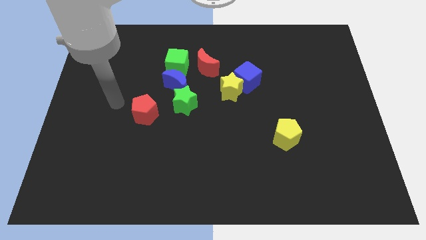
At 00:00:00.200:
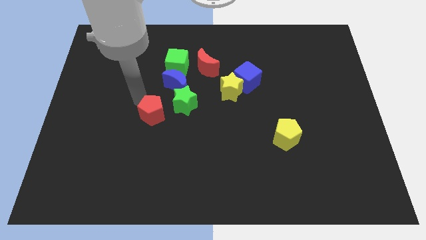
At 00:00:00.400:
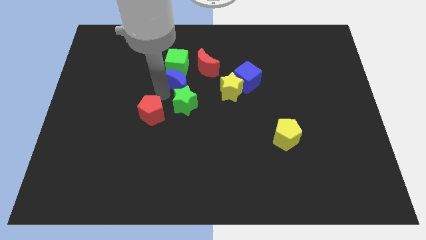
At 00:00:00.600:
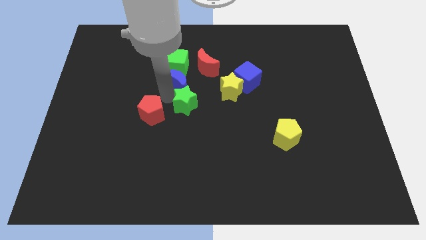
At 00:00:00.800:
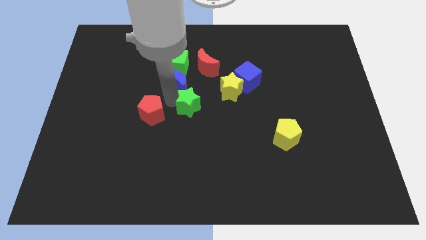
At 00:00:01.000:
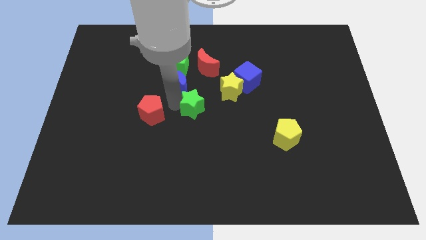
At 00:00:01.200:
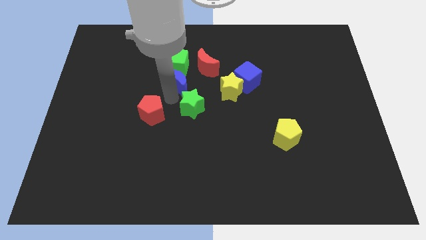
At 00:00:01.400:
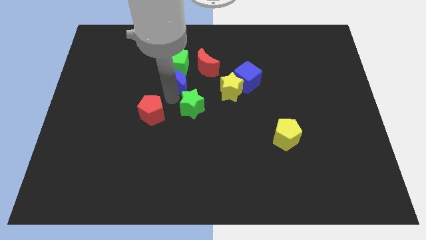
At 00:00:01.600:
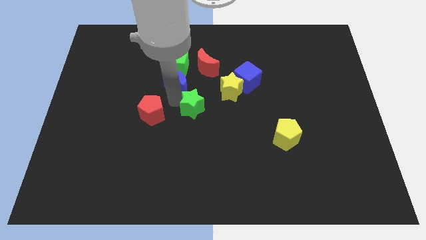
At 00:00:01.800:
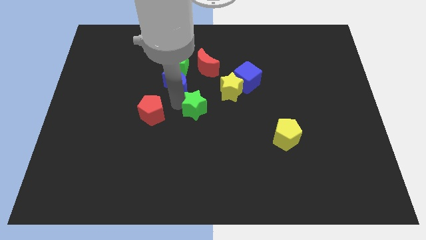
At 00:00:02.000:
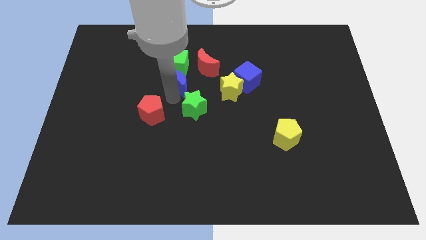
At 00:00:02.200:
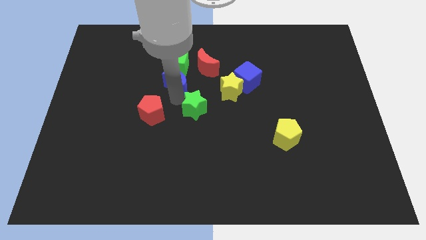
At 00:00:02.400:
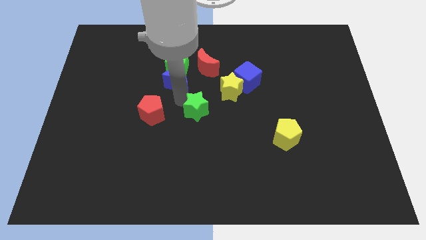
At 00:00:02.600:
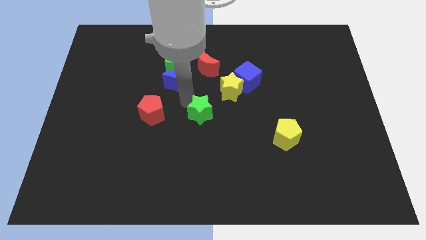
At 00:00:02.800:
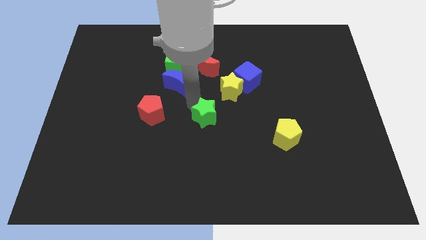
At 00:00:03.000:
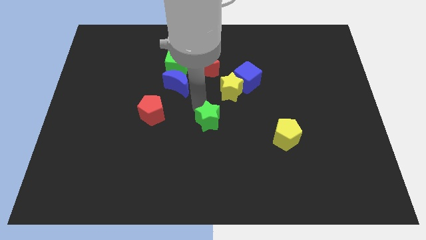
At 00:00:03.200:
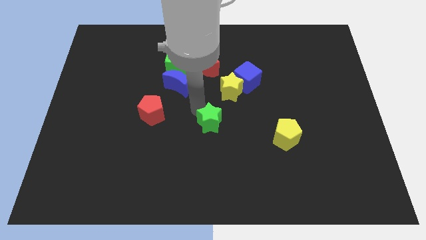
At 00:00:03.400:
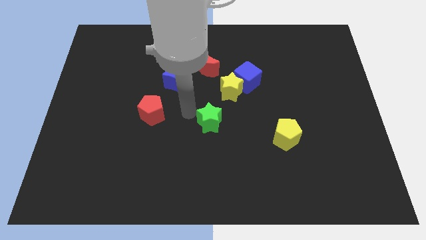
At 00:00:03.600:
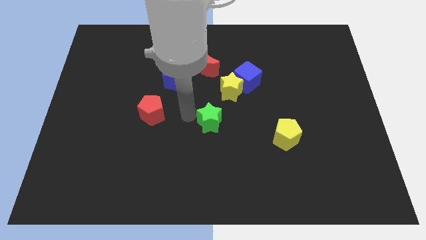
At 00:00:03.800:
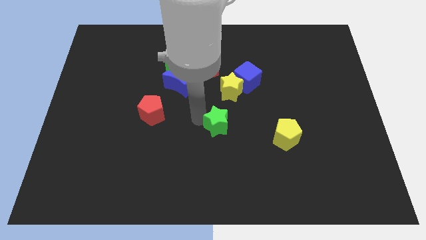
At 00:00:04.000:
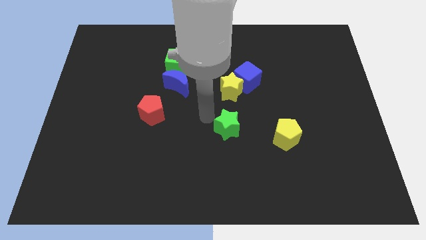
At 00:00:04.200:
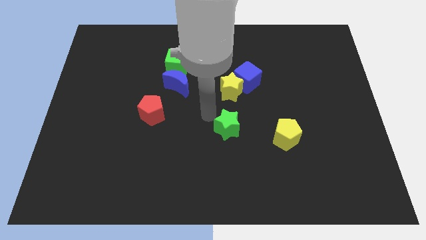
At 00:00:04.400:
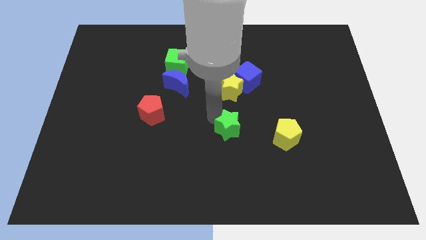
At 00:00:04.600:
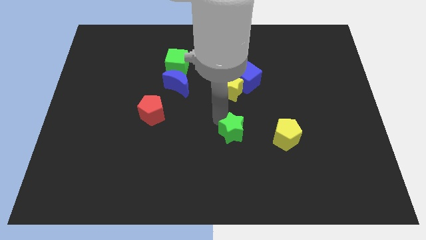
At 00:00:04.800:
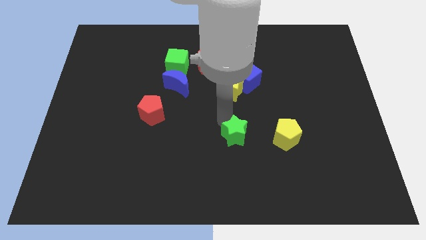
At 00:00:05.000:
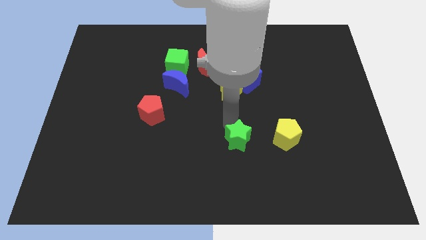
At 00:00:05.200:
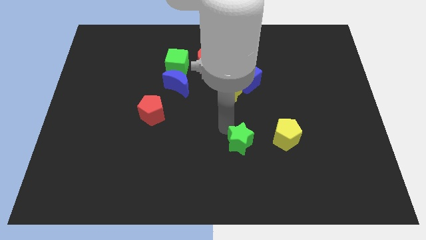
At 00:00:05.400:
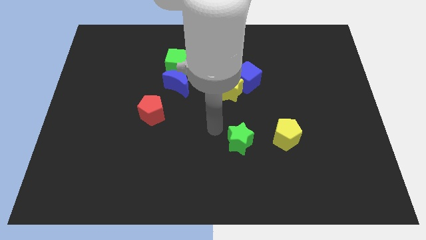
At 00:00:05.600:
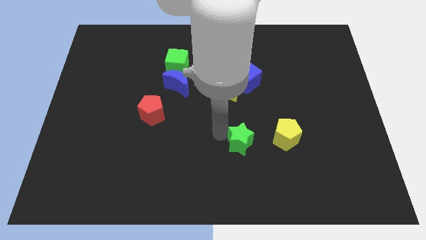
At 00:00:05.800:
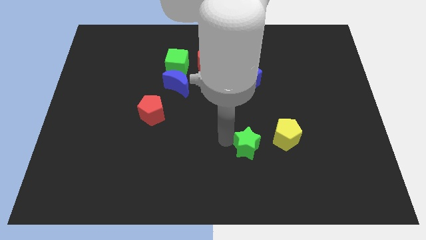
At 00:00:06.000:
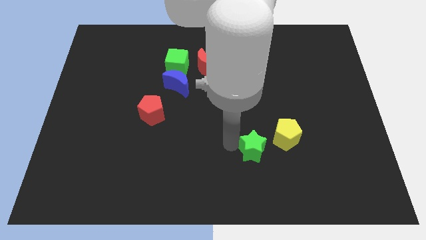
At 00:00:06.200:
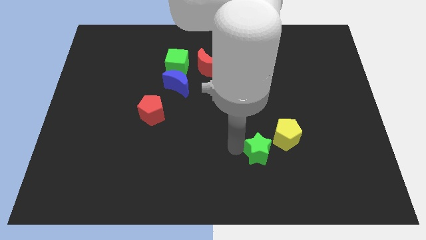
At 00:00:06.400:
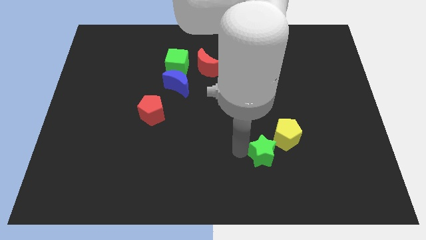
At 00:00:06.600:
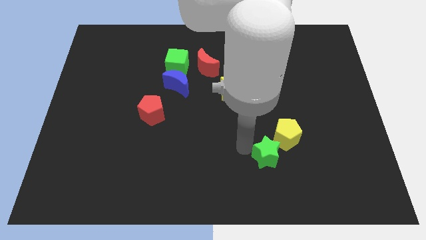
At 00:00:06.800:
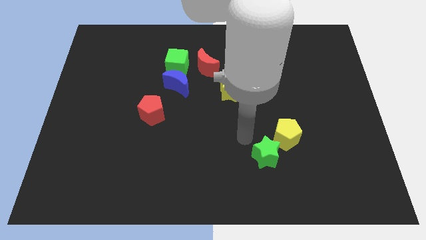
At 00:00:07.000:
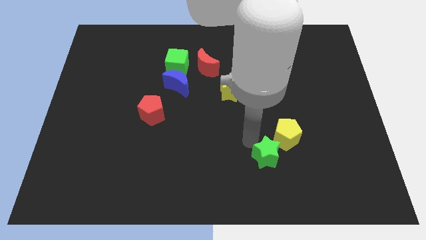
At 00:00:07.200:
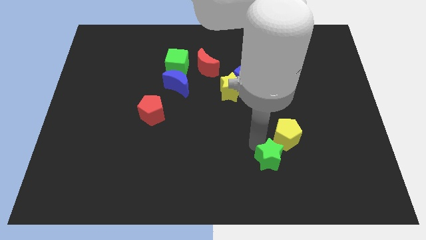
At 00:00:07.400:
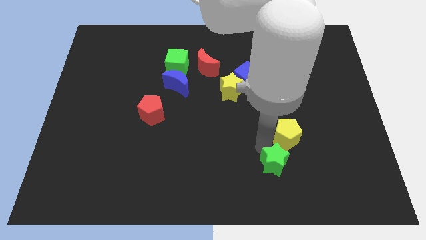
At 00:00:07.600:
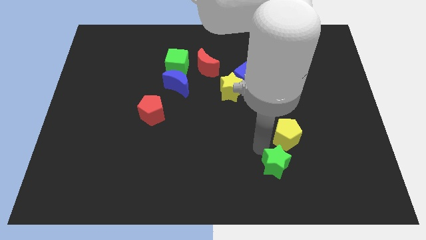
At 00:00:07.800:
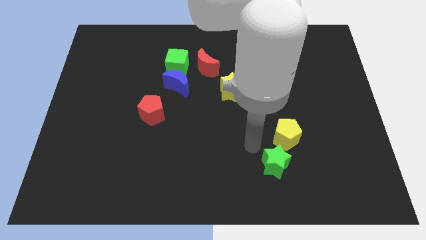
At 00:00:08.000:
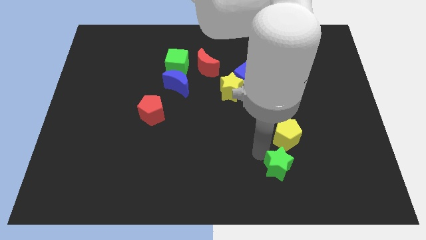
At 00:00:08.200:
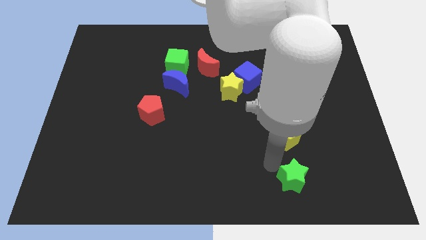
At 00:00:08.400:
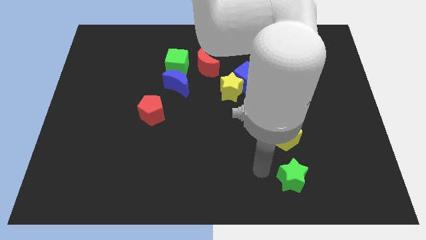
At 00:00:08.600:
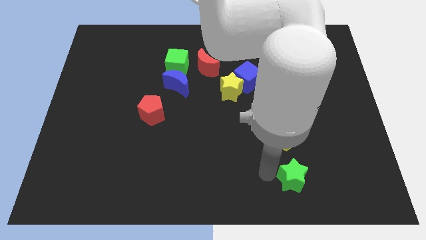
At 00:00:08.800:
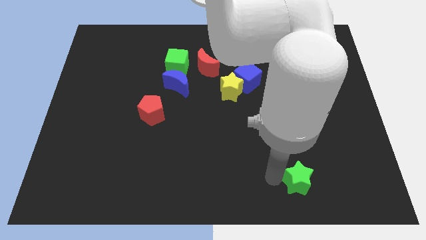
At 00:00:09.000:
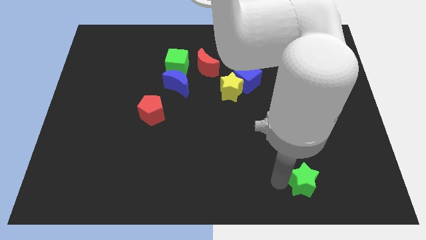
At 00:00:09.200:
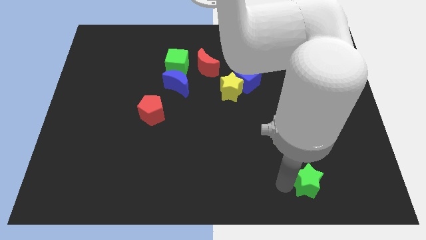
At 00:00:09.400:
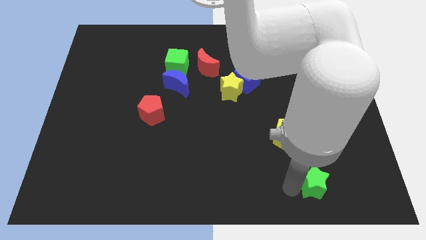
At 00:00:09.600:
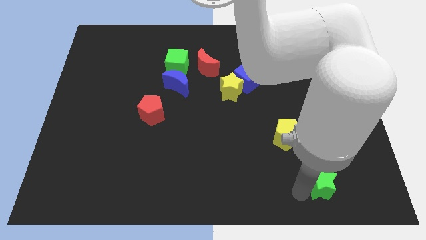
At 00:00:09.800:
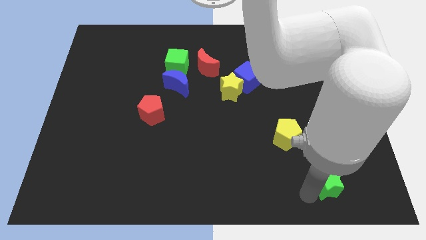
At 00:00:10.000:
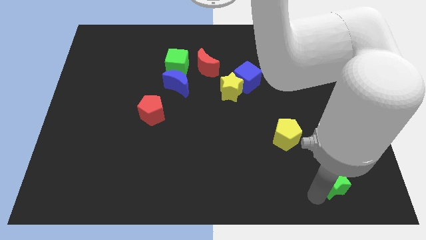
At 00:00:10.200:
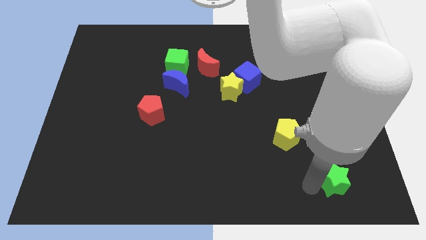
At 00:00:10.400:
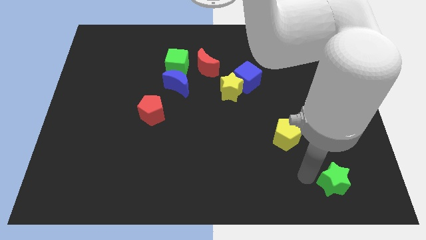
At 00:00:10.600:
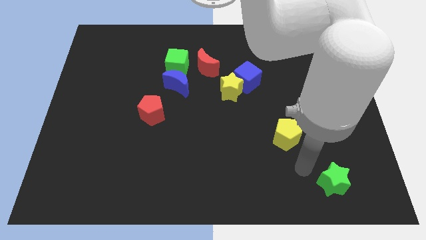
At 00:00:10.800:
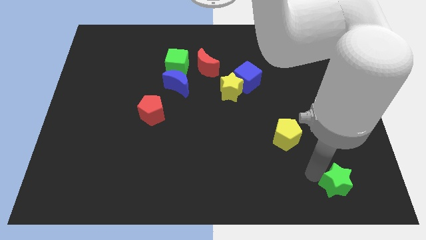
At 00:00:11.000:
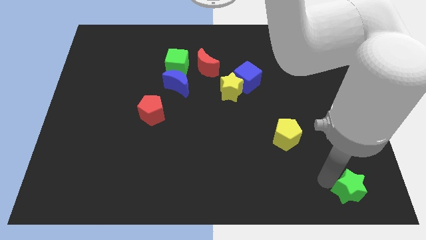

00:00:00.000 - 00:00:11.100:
move the green star to the lower right corner

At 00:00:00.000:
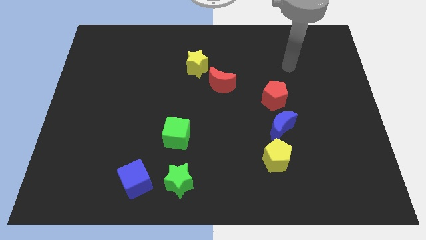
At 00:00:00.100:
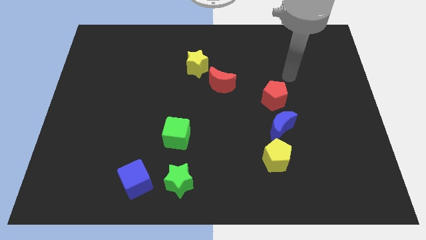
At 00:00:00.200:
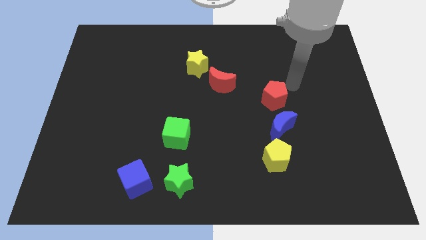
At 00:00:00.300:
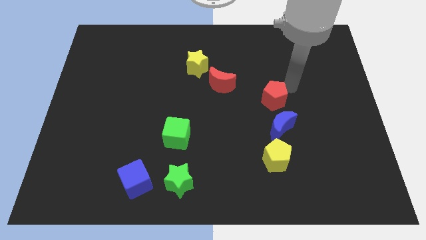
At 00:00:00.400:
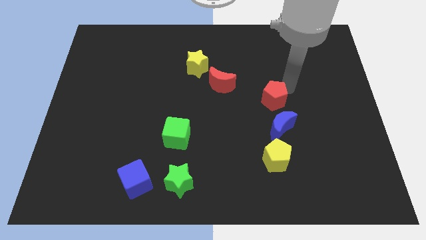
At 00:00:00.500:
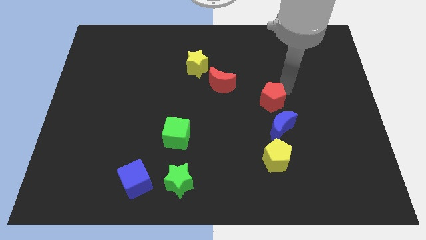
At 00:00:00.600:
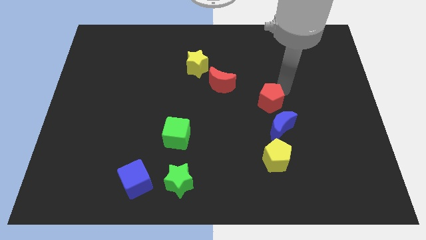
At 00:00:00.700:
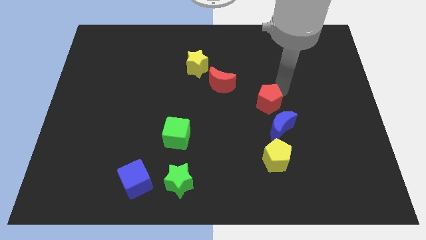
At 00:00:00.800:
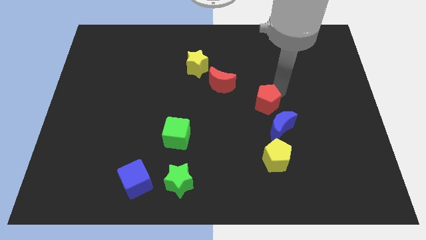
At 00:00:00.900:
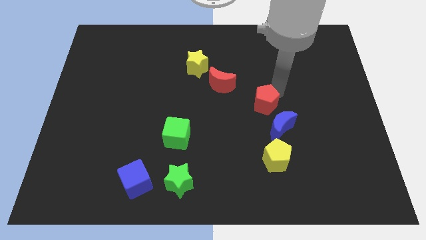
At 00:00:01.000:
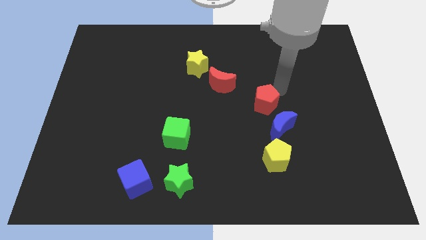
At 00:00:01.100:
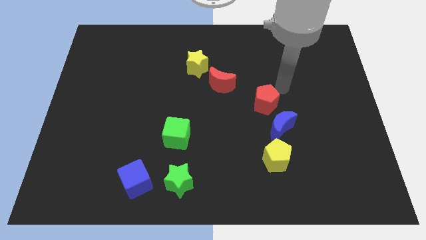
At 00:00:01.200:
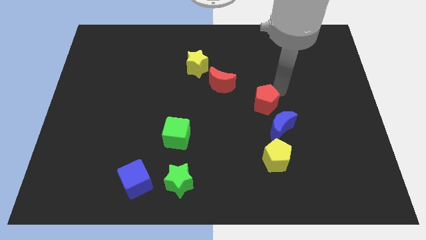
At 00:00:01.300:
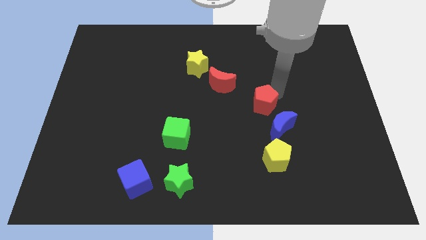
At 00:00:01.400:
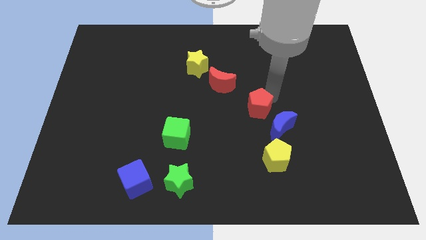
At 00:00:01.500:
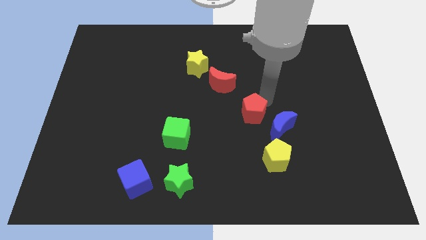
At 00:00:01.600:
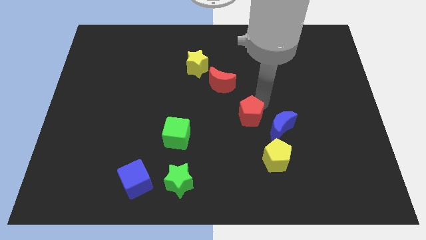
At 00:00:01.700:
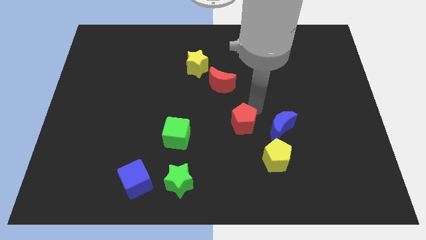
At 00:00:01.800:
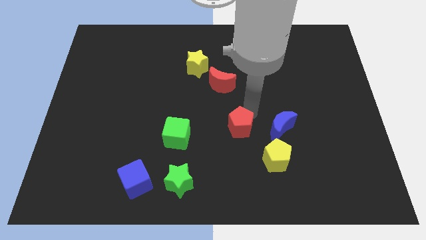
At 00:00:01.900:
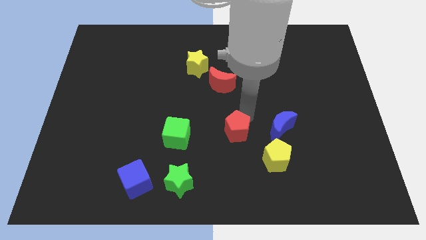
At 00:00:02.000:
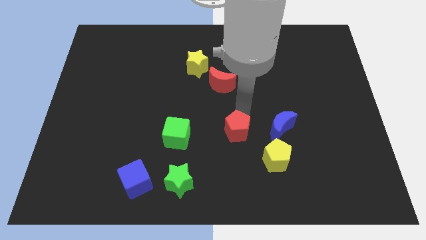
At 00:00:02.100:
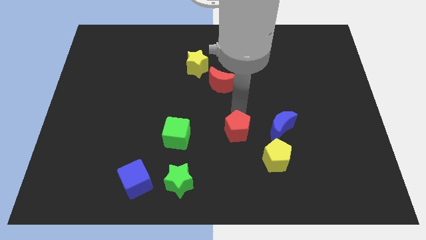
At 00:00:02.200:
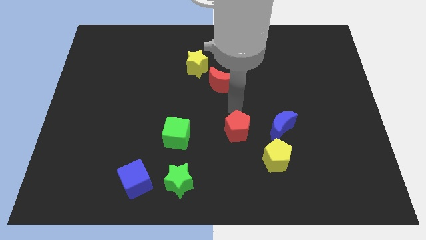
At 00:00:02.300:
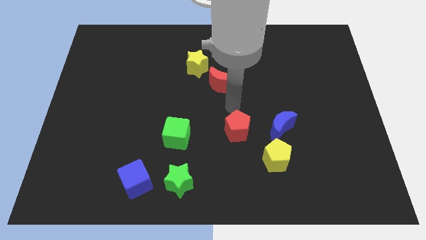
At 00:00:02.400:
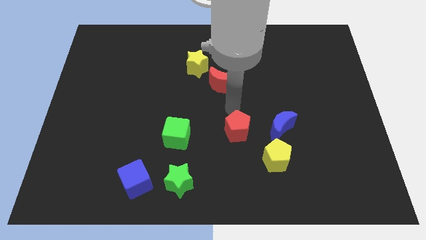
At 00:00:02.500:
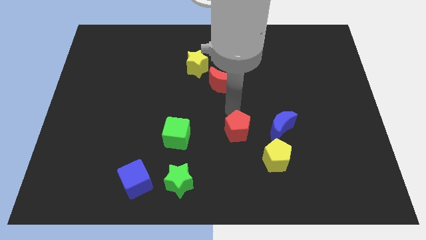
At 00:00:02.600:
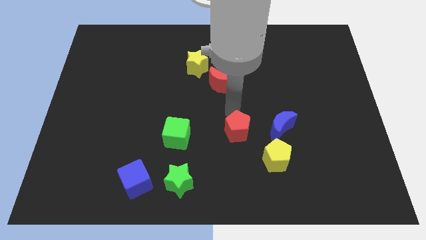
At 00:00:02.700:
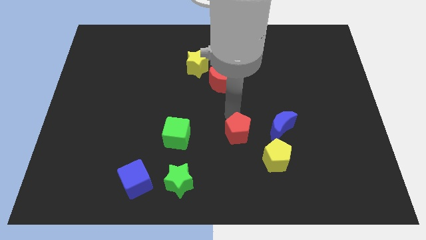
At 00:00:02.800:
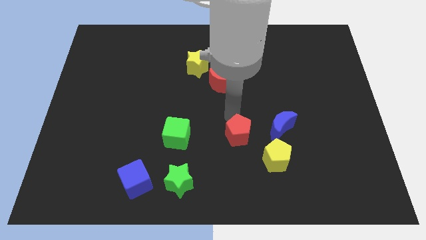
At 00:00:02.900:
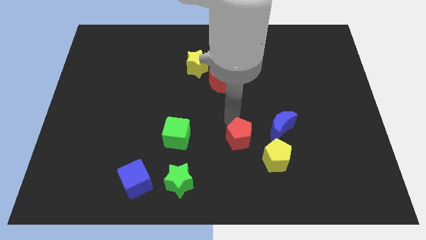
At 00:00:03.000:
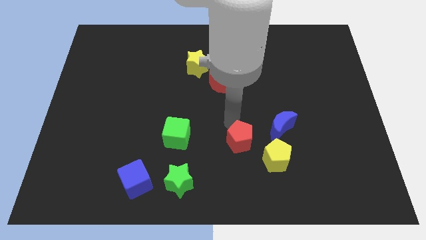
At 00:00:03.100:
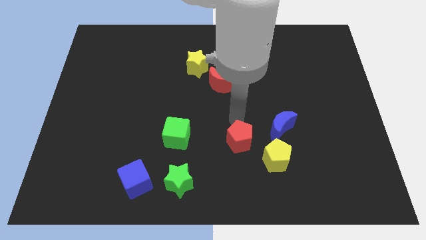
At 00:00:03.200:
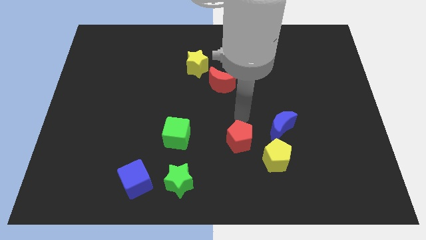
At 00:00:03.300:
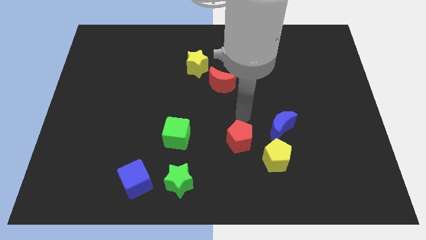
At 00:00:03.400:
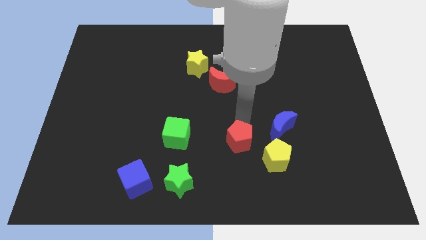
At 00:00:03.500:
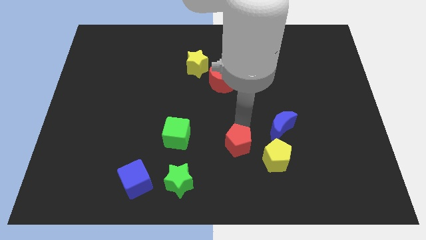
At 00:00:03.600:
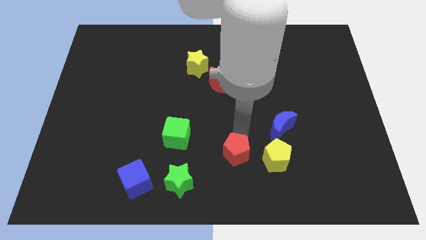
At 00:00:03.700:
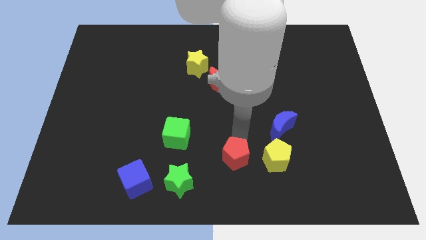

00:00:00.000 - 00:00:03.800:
push the red pentagon to the bottom
